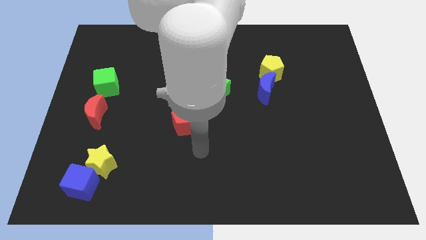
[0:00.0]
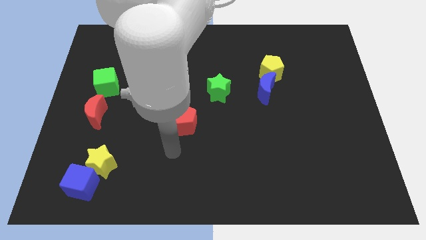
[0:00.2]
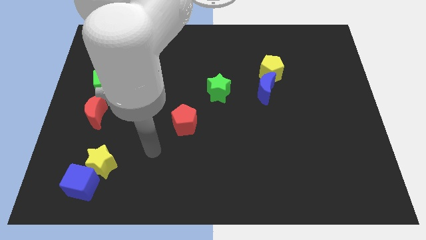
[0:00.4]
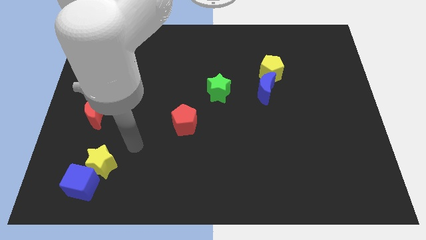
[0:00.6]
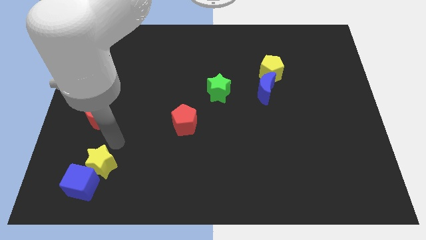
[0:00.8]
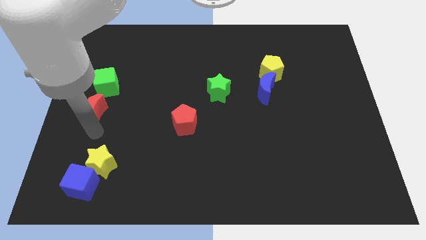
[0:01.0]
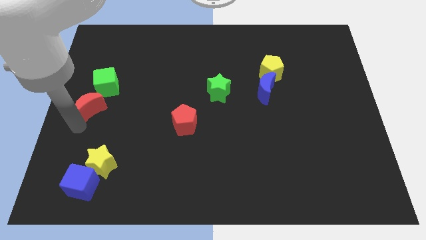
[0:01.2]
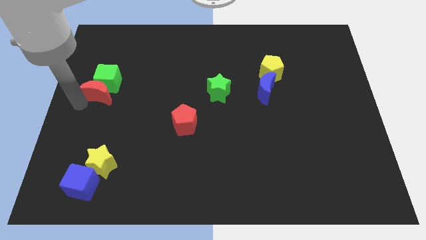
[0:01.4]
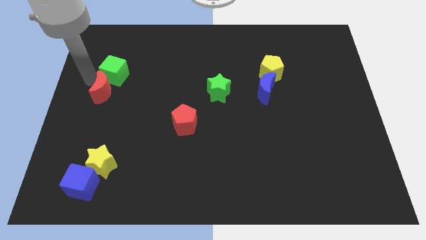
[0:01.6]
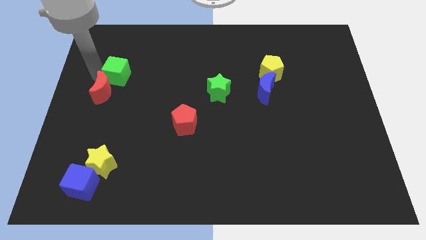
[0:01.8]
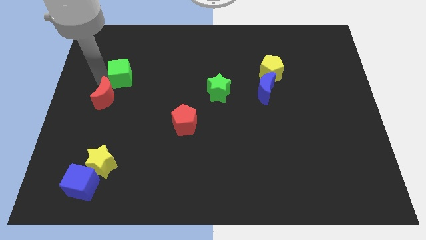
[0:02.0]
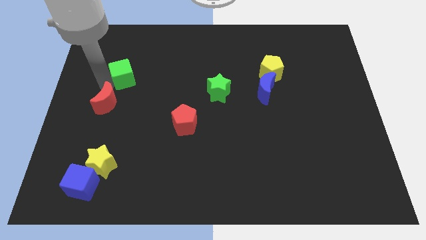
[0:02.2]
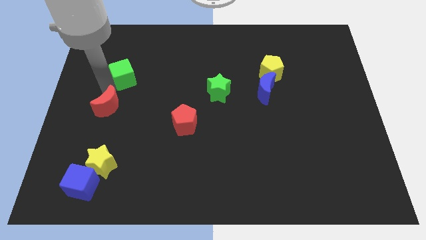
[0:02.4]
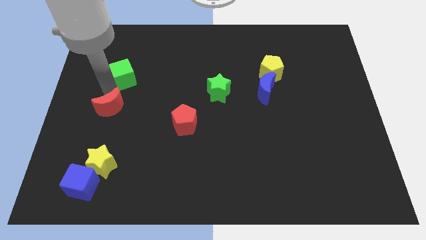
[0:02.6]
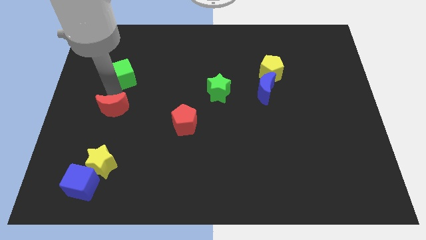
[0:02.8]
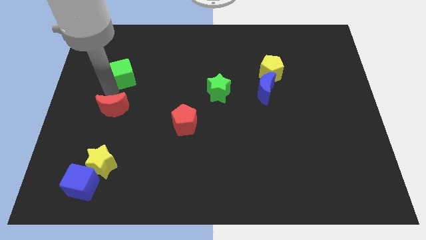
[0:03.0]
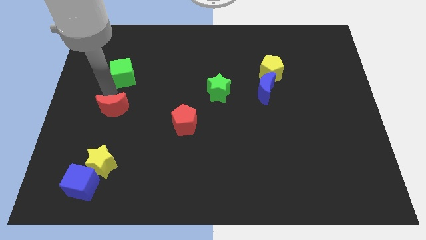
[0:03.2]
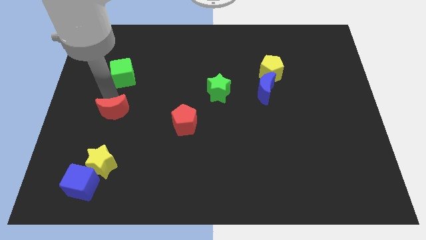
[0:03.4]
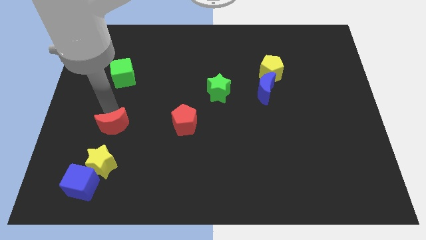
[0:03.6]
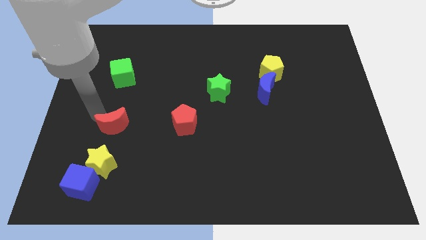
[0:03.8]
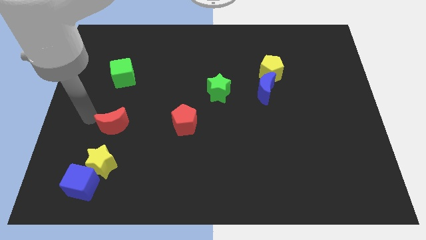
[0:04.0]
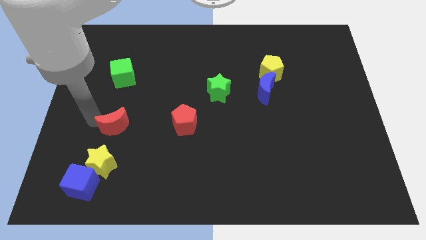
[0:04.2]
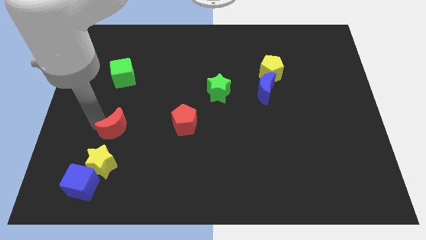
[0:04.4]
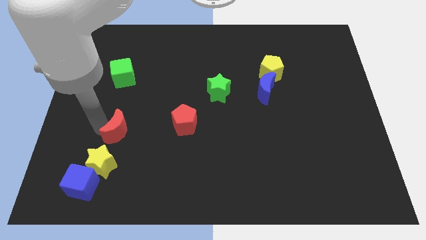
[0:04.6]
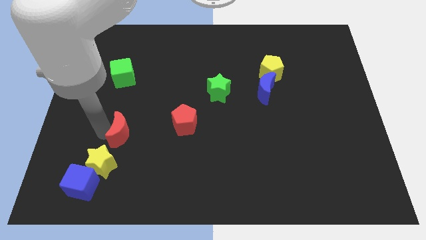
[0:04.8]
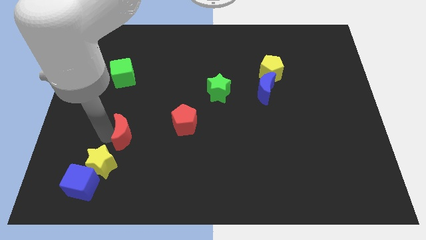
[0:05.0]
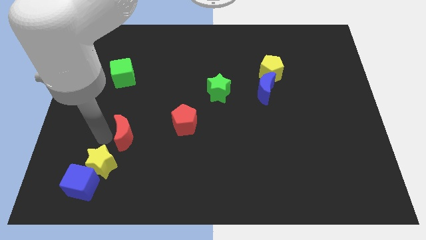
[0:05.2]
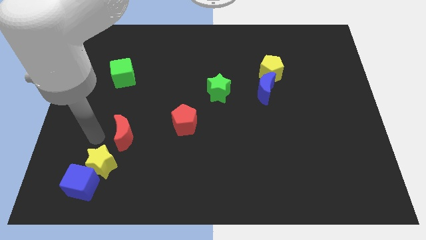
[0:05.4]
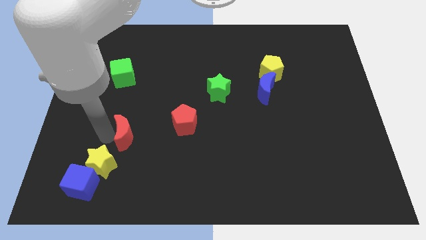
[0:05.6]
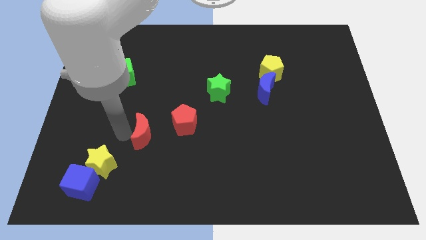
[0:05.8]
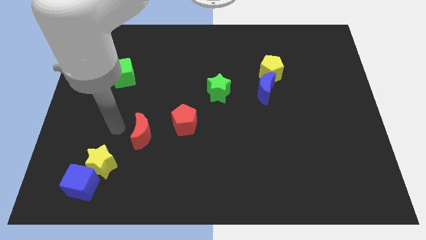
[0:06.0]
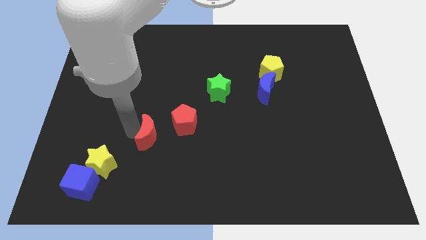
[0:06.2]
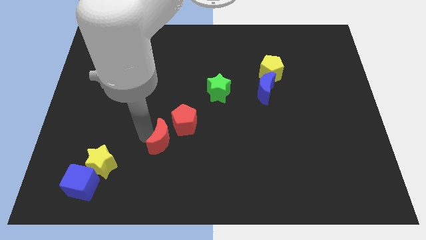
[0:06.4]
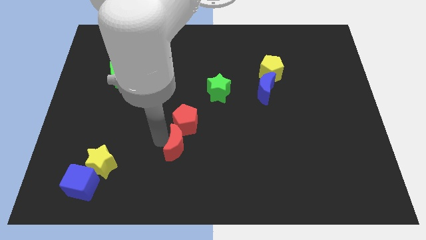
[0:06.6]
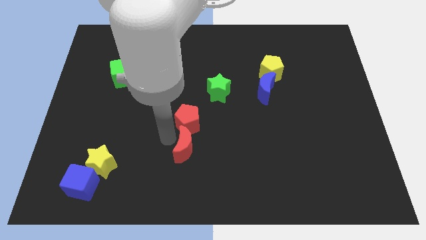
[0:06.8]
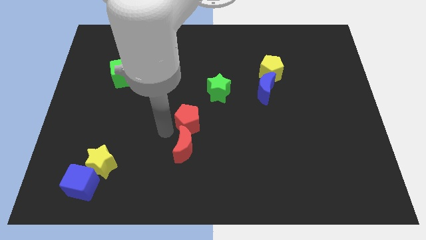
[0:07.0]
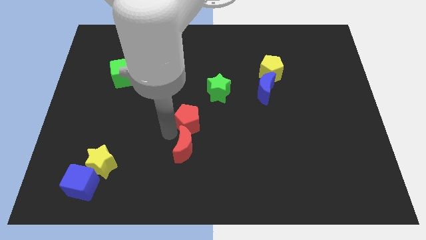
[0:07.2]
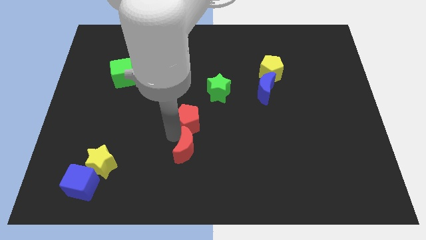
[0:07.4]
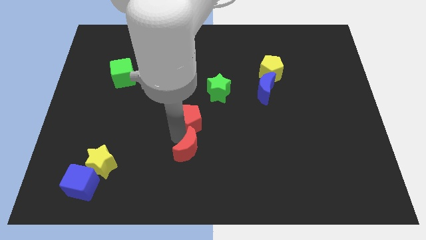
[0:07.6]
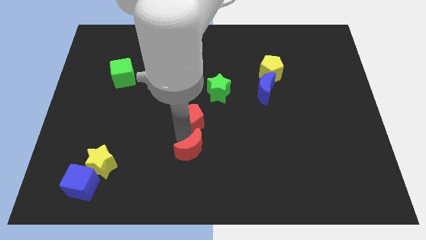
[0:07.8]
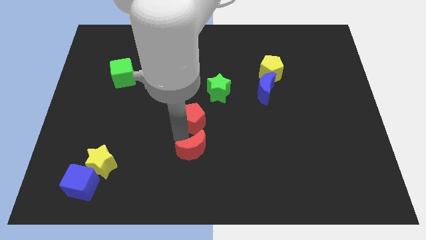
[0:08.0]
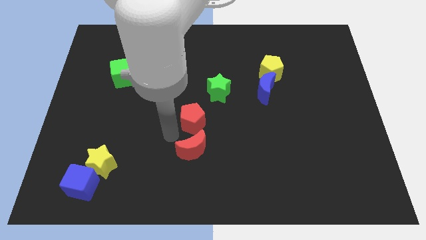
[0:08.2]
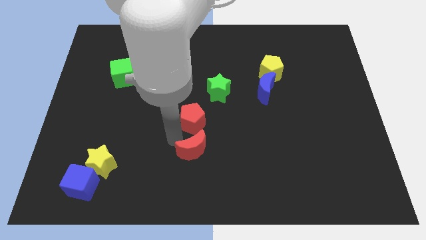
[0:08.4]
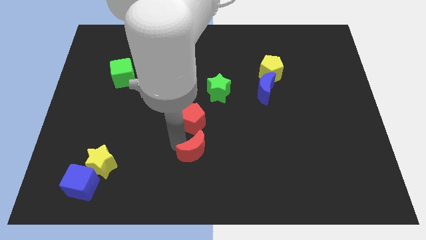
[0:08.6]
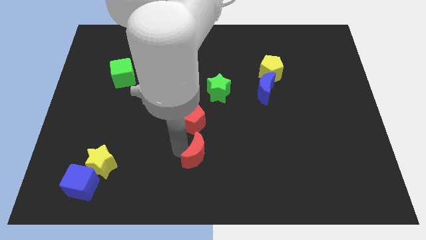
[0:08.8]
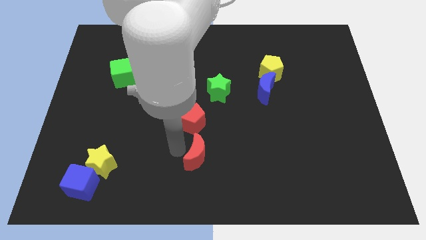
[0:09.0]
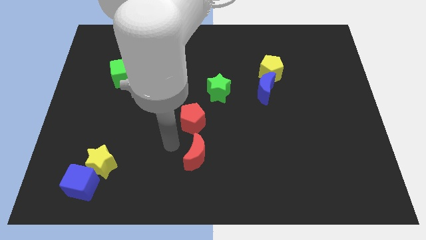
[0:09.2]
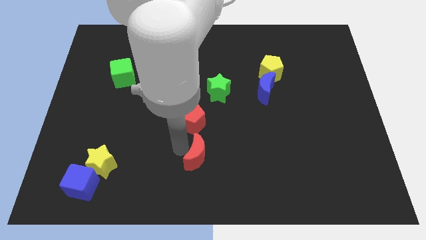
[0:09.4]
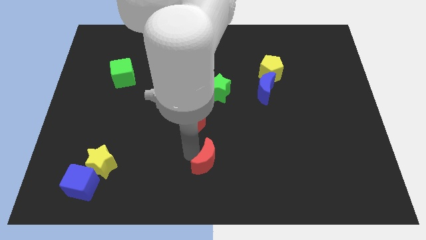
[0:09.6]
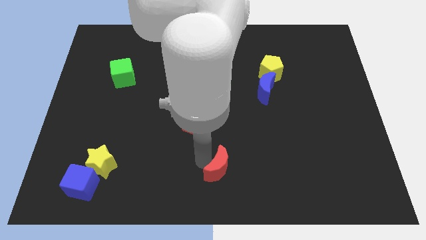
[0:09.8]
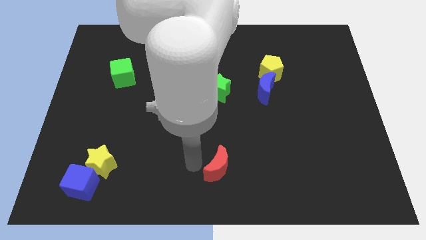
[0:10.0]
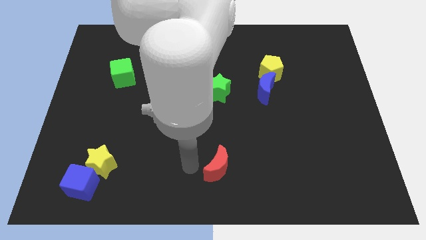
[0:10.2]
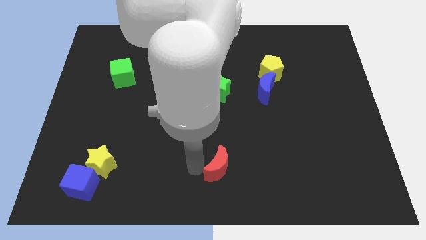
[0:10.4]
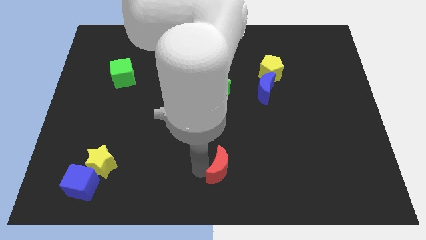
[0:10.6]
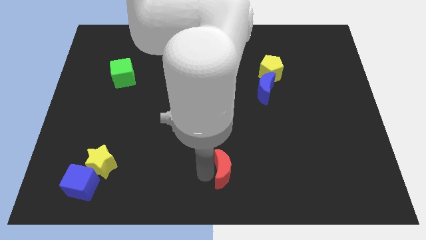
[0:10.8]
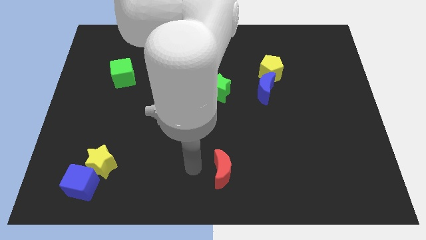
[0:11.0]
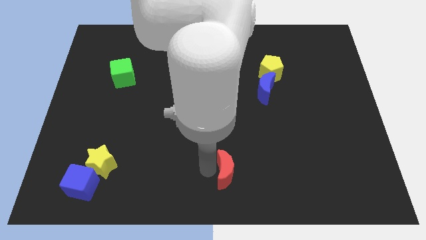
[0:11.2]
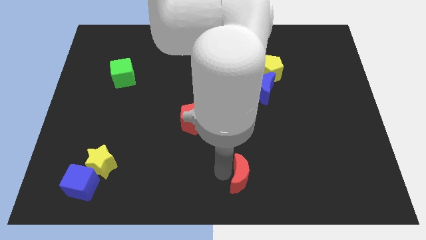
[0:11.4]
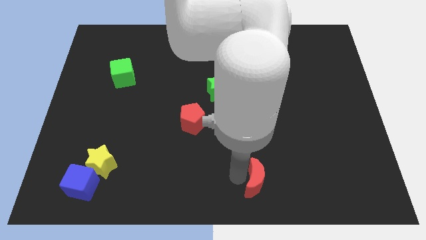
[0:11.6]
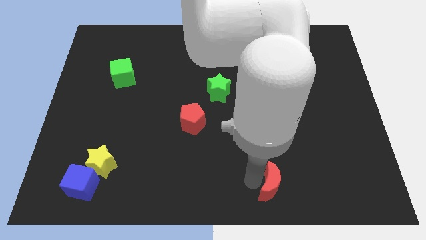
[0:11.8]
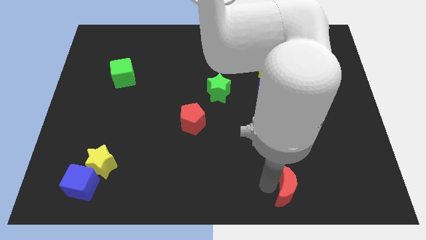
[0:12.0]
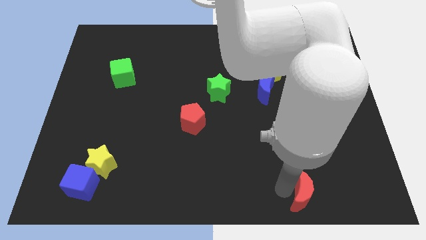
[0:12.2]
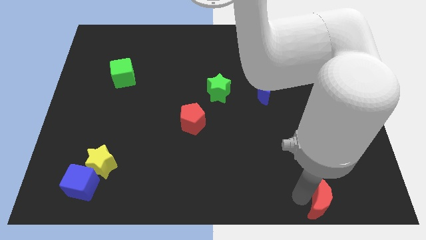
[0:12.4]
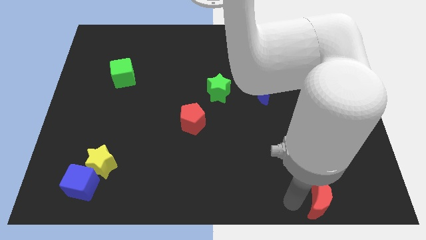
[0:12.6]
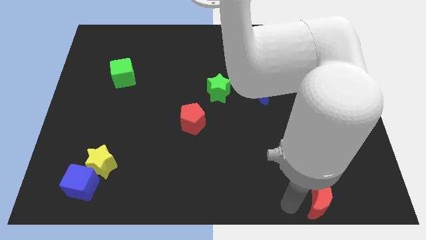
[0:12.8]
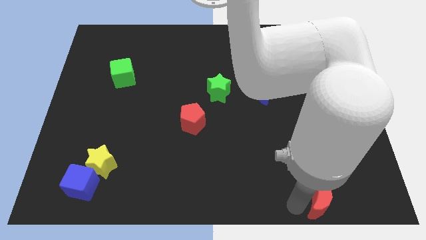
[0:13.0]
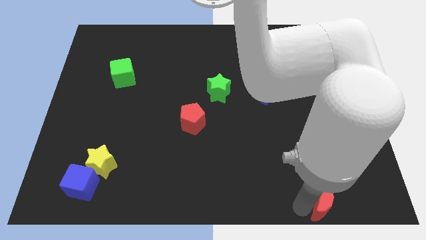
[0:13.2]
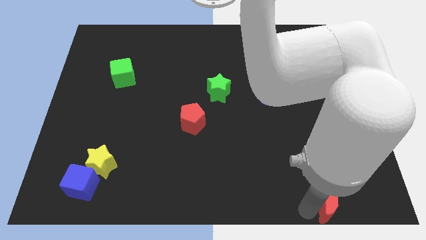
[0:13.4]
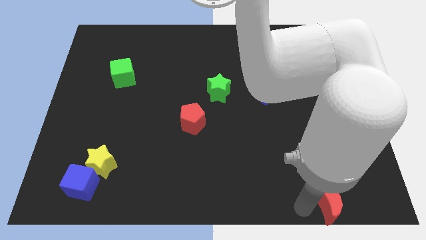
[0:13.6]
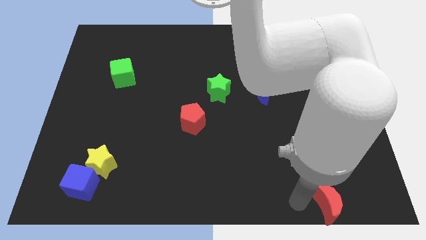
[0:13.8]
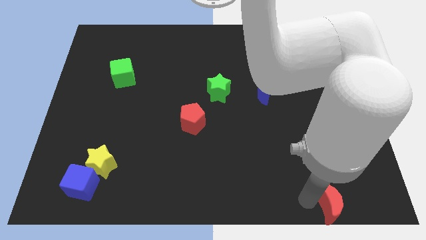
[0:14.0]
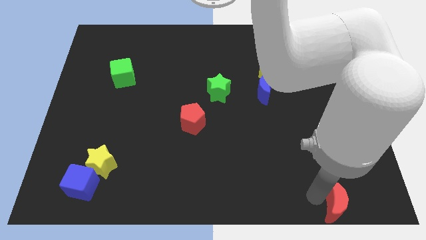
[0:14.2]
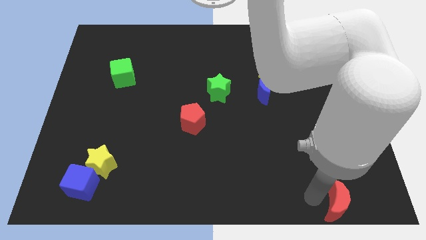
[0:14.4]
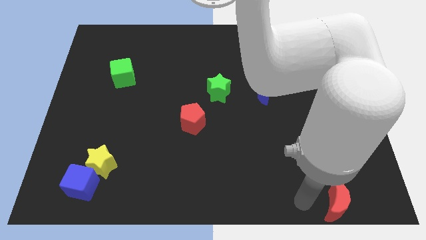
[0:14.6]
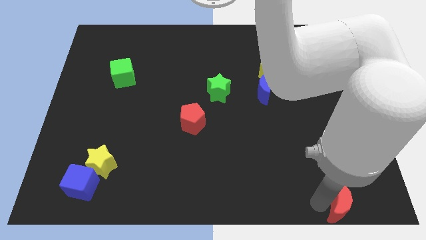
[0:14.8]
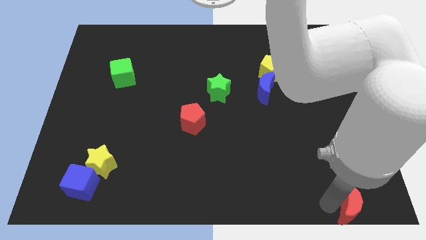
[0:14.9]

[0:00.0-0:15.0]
push the red moon to the lower right corner

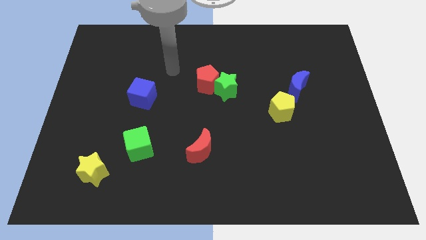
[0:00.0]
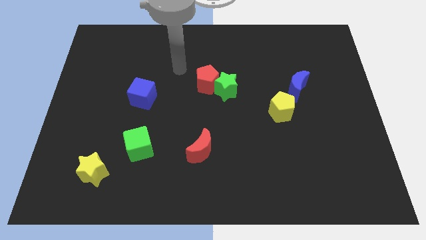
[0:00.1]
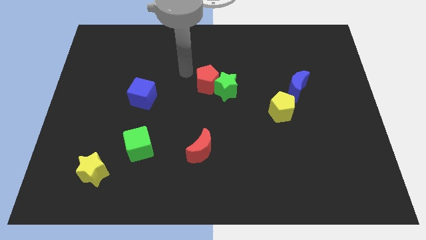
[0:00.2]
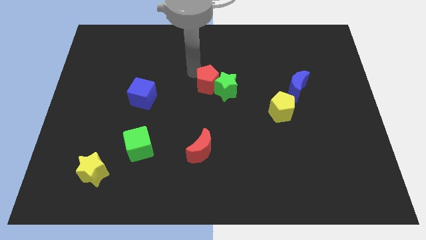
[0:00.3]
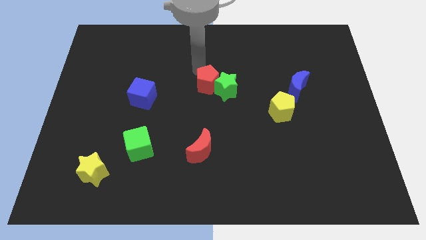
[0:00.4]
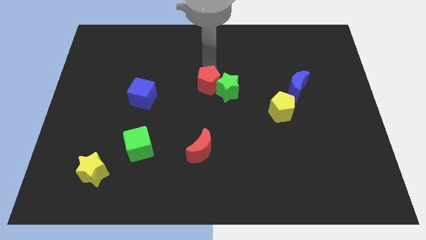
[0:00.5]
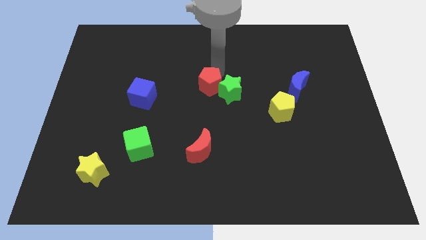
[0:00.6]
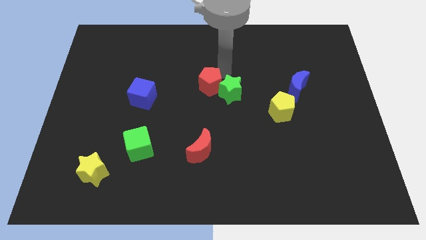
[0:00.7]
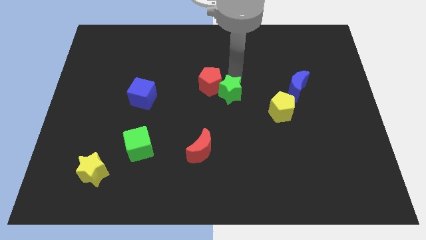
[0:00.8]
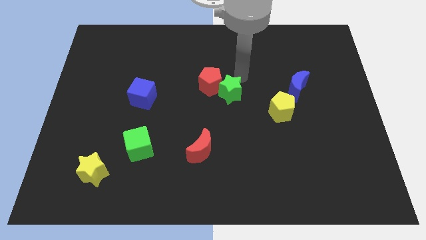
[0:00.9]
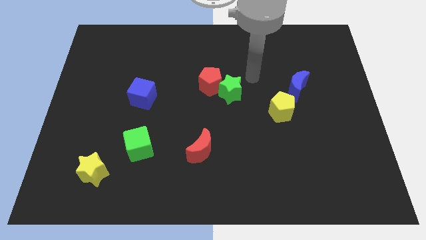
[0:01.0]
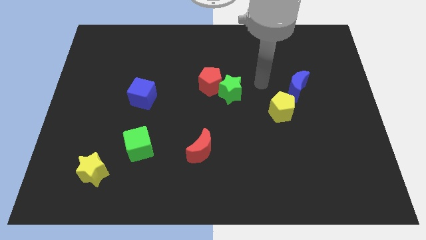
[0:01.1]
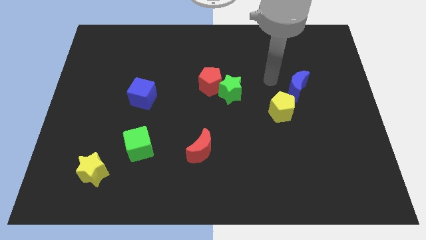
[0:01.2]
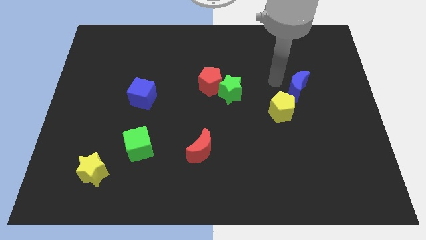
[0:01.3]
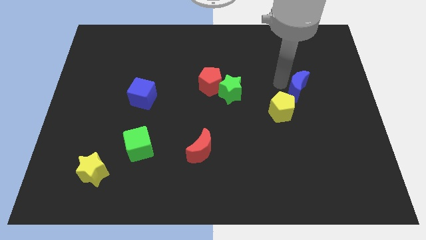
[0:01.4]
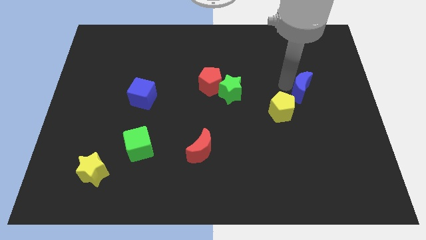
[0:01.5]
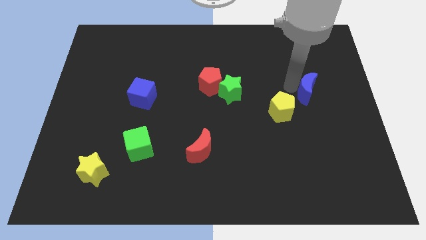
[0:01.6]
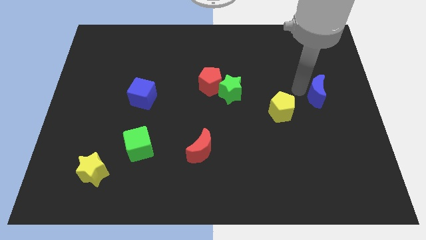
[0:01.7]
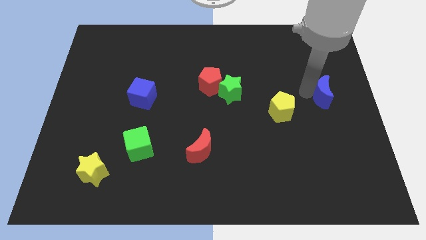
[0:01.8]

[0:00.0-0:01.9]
slide the blue moon to the right side
